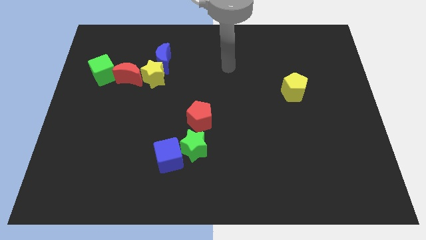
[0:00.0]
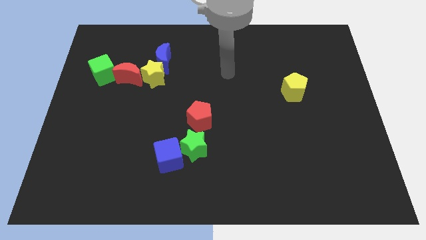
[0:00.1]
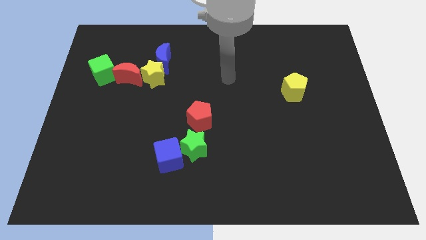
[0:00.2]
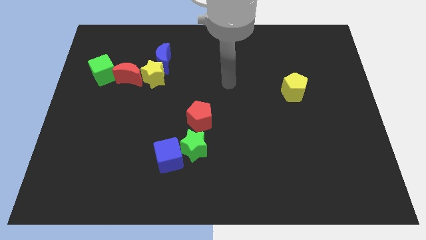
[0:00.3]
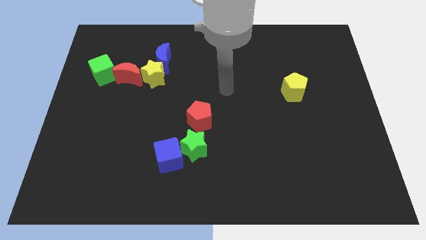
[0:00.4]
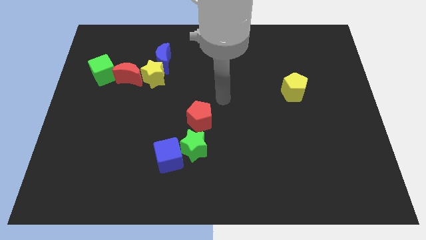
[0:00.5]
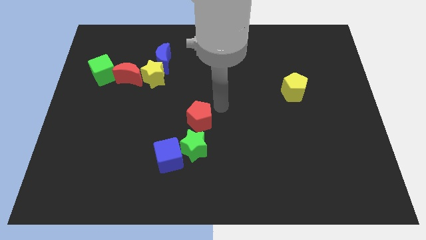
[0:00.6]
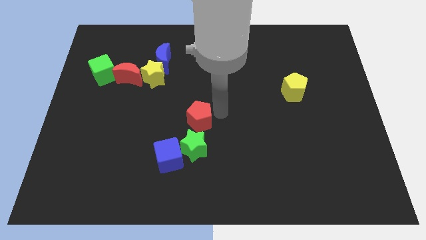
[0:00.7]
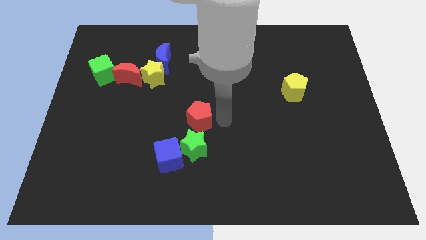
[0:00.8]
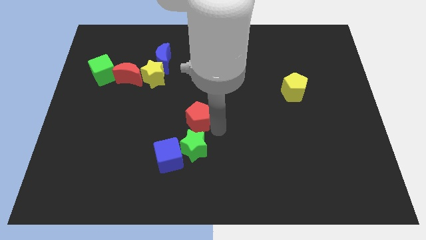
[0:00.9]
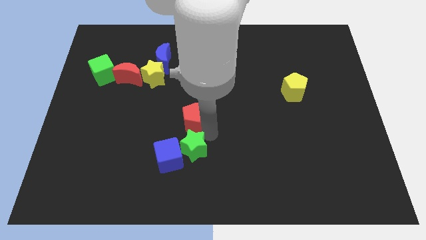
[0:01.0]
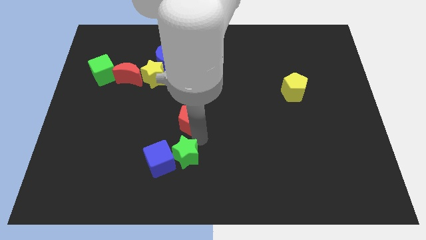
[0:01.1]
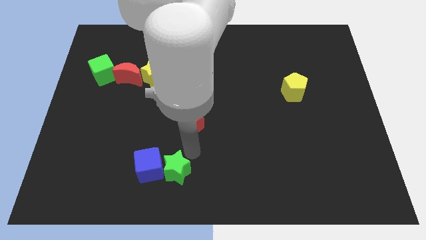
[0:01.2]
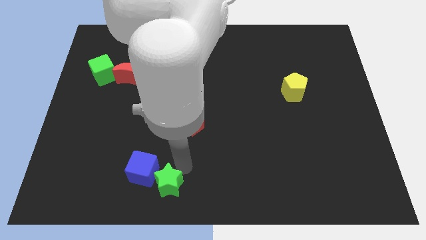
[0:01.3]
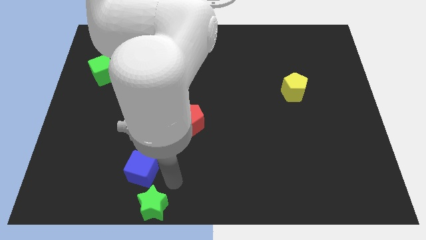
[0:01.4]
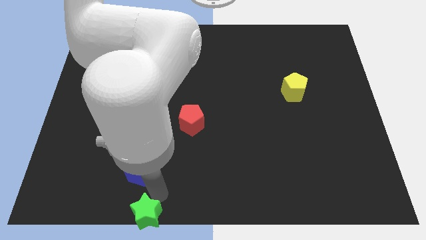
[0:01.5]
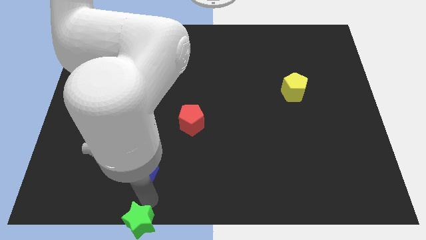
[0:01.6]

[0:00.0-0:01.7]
separate the blue cube from the green star

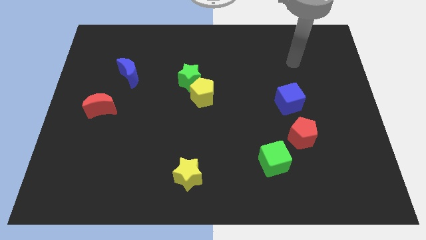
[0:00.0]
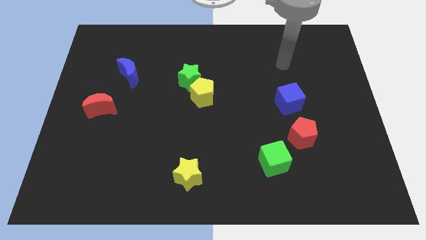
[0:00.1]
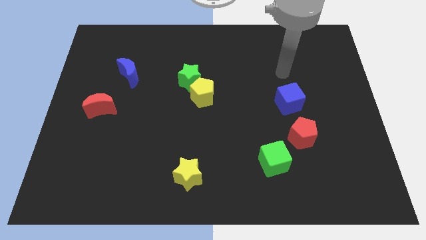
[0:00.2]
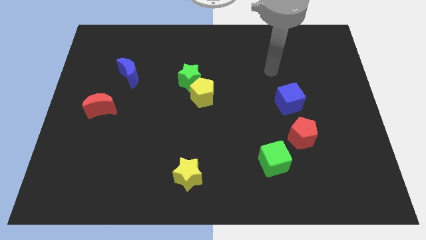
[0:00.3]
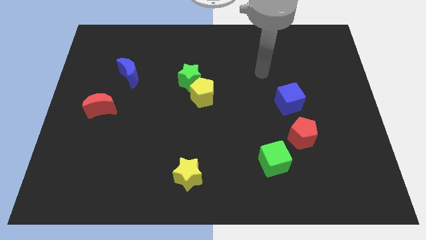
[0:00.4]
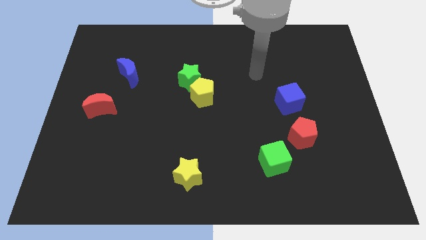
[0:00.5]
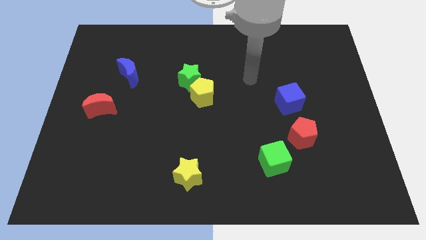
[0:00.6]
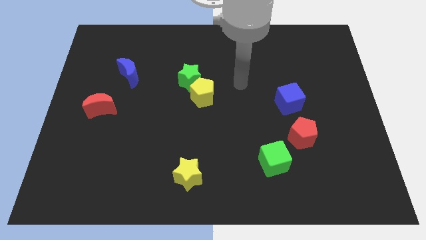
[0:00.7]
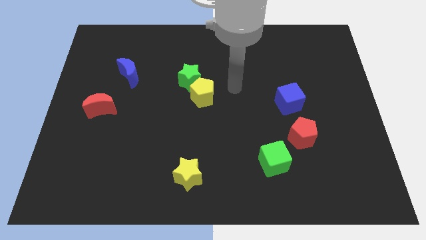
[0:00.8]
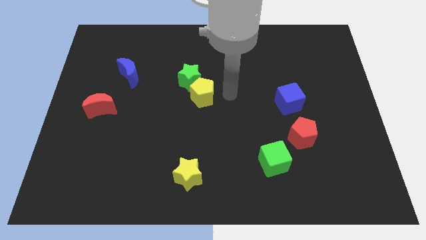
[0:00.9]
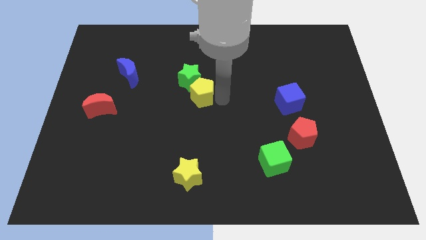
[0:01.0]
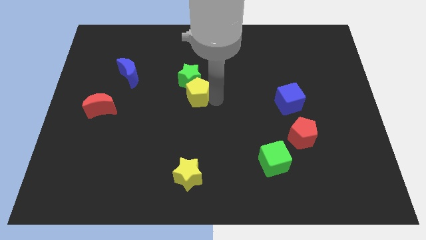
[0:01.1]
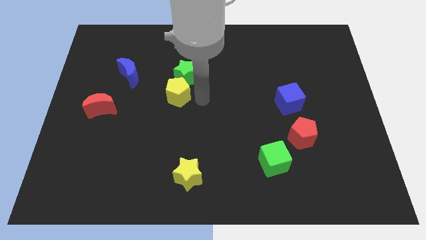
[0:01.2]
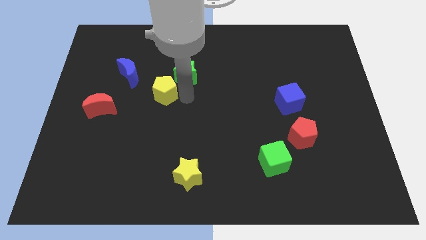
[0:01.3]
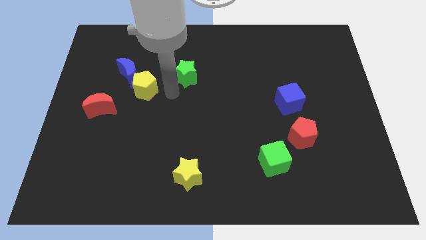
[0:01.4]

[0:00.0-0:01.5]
separate the green star from the yellow pentagon

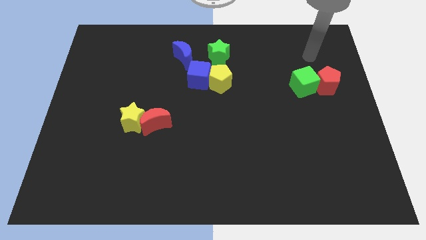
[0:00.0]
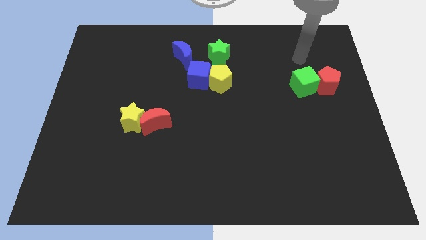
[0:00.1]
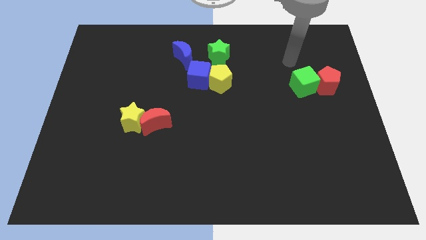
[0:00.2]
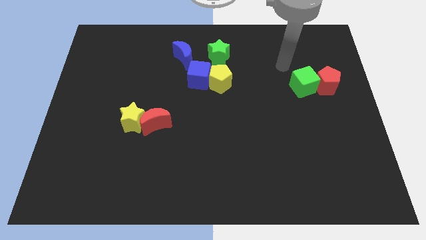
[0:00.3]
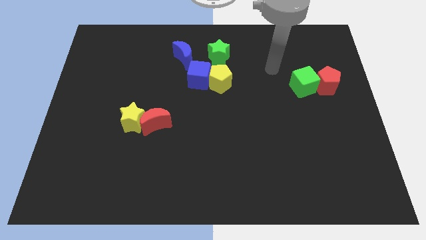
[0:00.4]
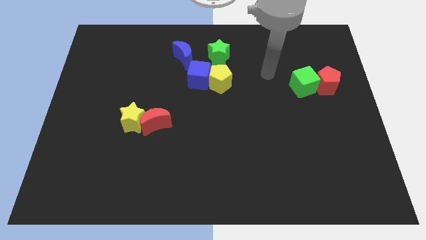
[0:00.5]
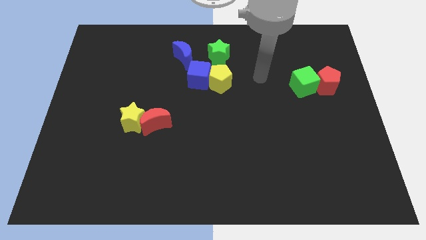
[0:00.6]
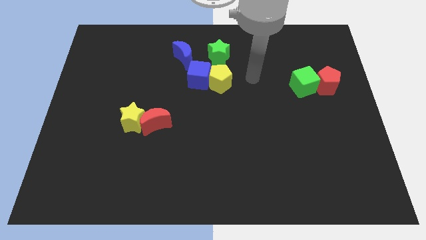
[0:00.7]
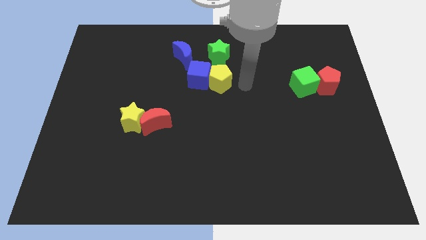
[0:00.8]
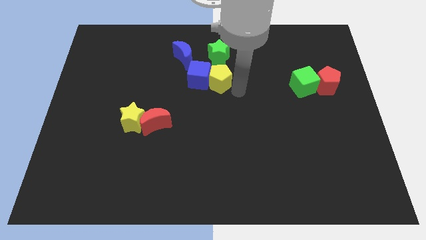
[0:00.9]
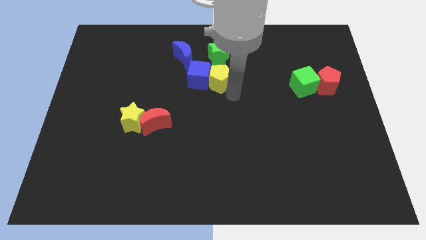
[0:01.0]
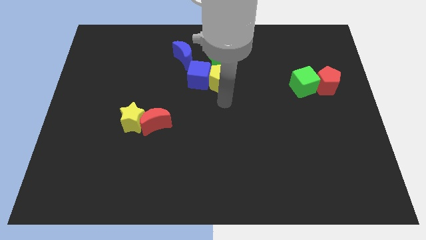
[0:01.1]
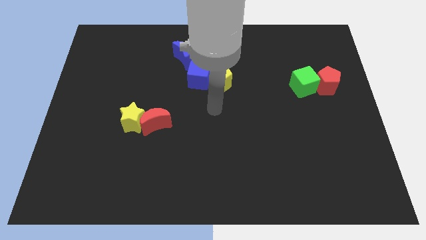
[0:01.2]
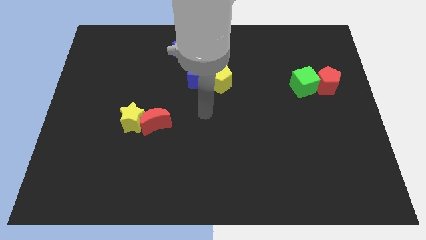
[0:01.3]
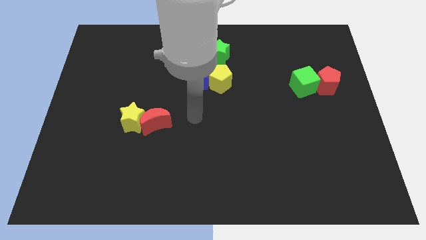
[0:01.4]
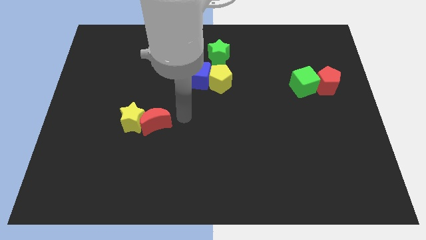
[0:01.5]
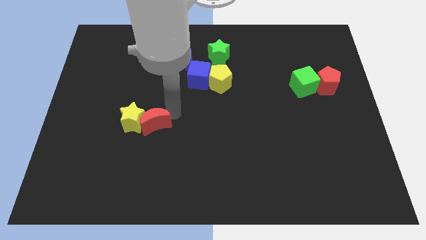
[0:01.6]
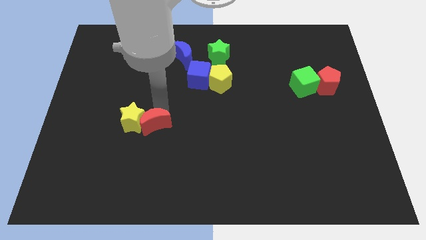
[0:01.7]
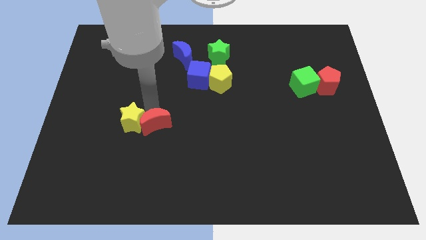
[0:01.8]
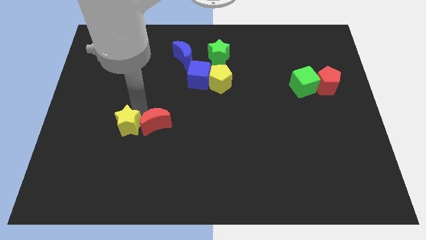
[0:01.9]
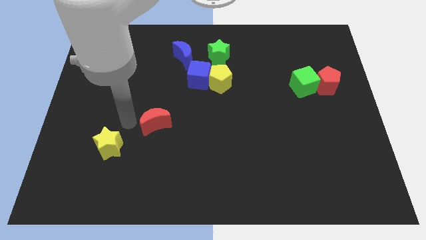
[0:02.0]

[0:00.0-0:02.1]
pull the red moon apart from the yellow star

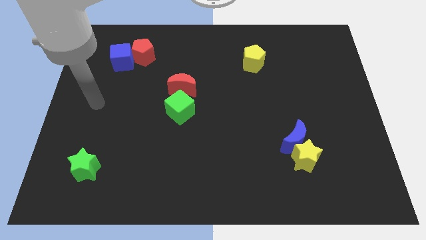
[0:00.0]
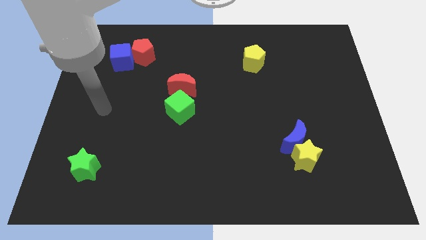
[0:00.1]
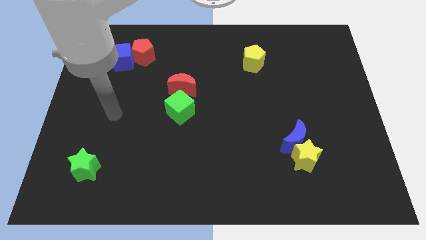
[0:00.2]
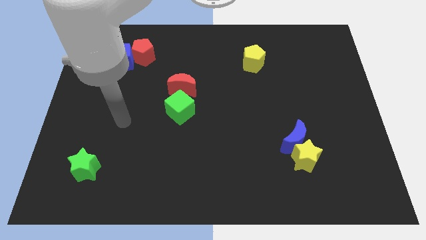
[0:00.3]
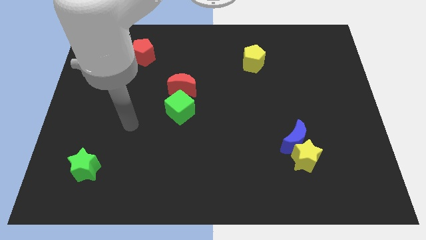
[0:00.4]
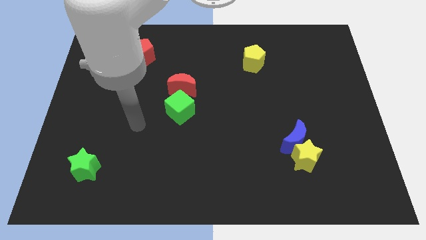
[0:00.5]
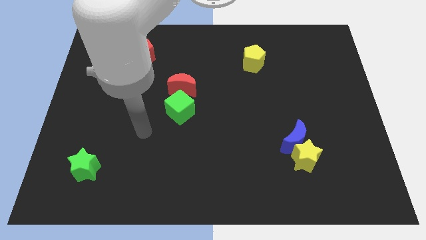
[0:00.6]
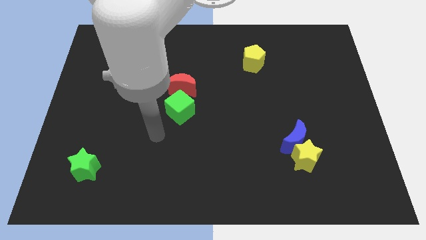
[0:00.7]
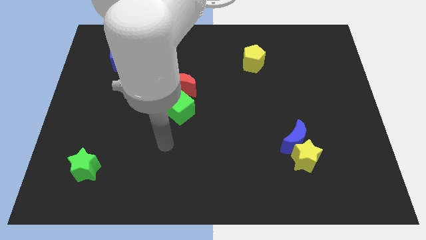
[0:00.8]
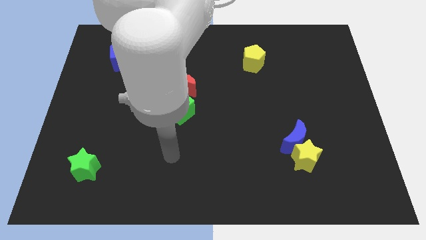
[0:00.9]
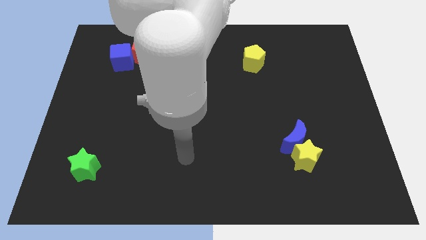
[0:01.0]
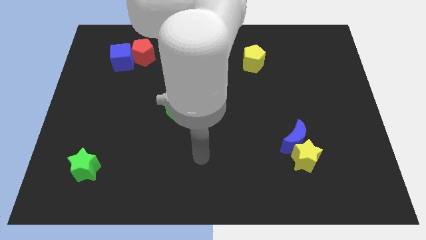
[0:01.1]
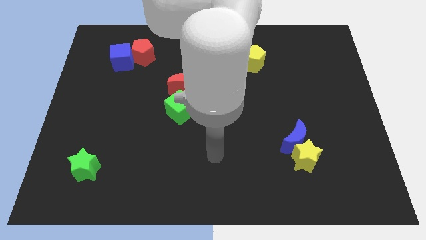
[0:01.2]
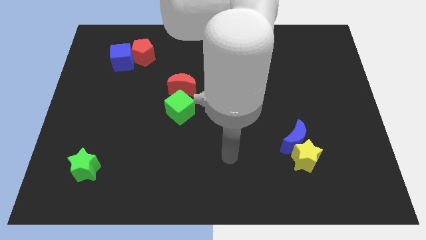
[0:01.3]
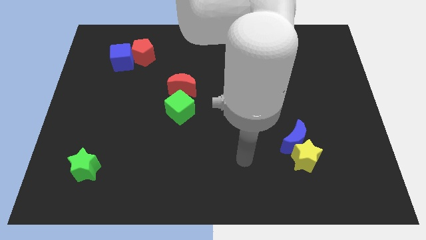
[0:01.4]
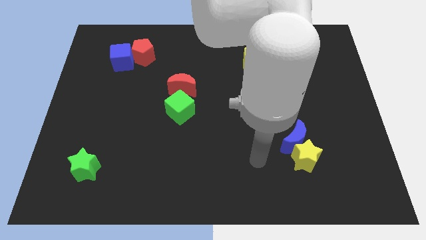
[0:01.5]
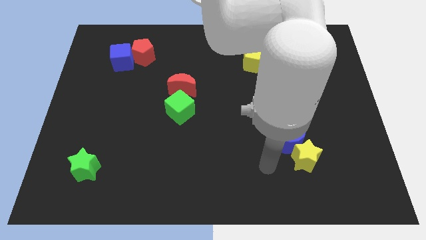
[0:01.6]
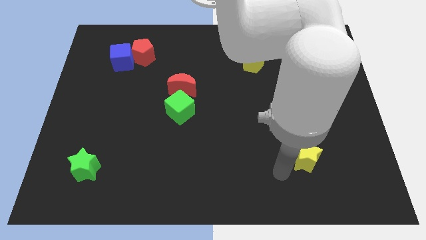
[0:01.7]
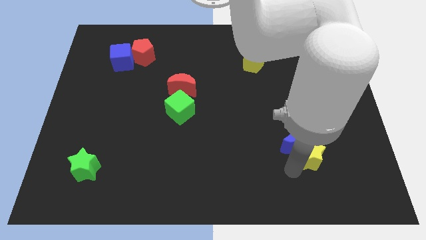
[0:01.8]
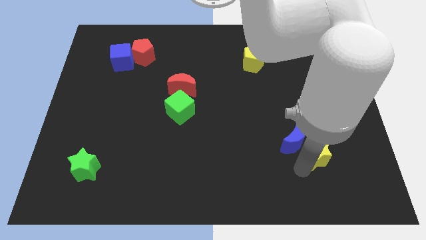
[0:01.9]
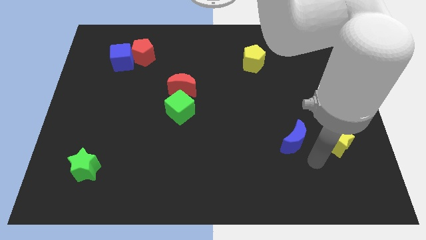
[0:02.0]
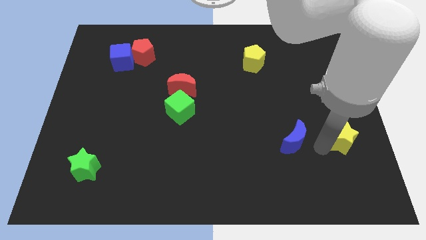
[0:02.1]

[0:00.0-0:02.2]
pull the blue moon apart from the yellow star

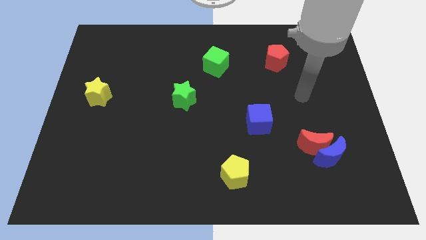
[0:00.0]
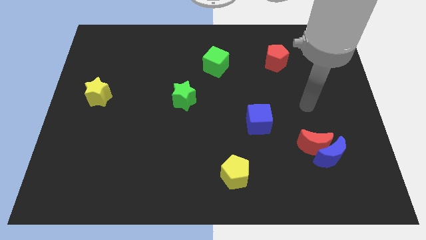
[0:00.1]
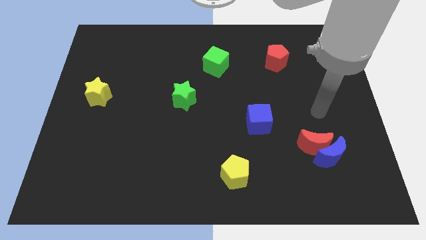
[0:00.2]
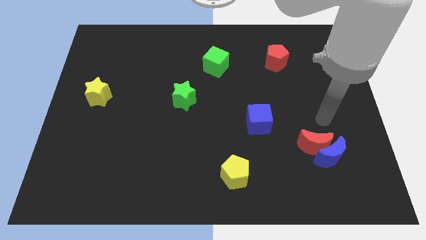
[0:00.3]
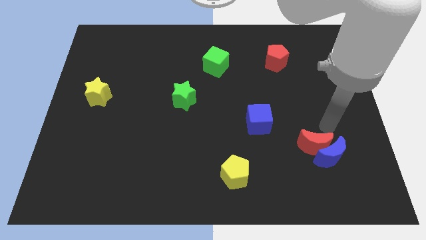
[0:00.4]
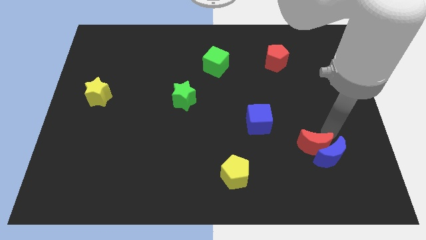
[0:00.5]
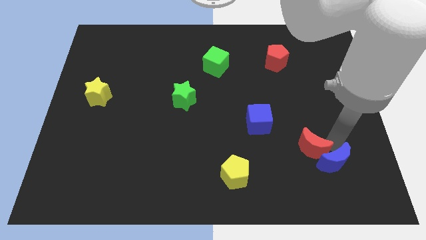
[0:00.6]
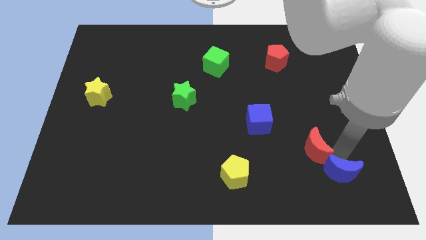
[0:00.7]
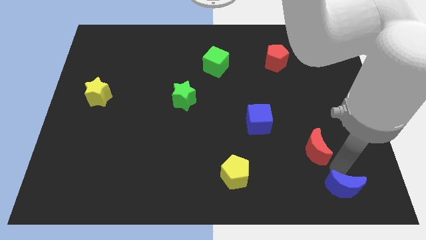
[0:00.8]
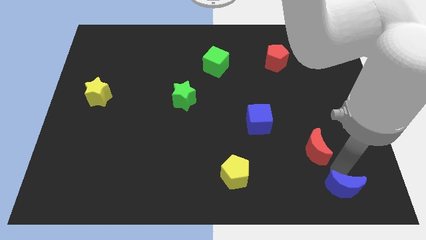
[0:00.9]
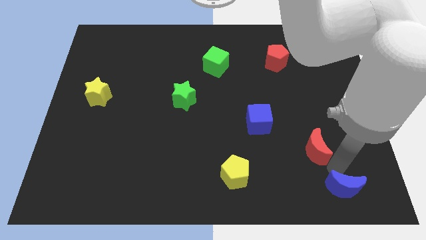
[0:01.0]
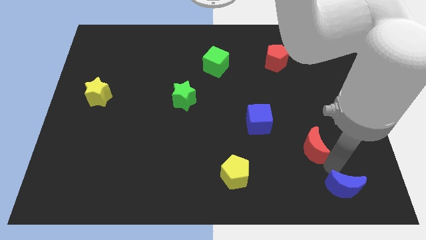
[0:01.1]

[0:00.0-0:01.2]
move the red moon away from the blue moon

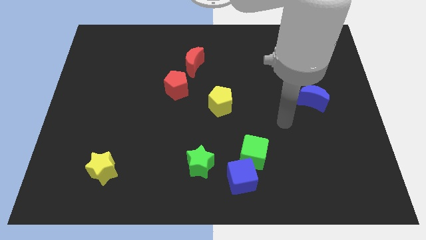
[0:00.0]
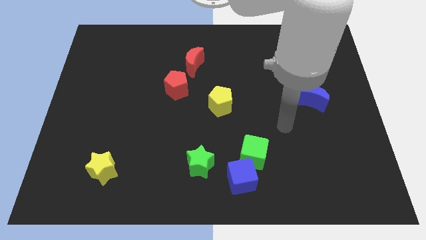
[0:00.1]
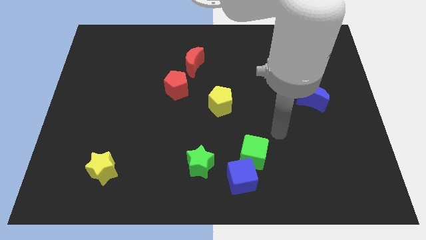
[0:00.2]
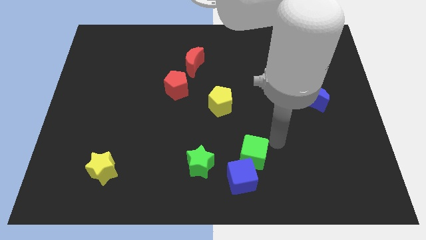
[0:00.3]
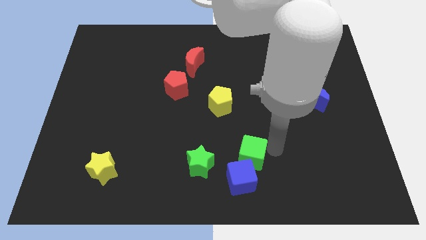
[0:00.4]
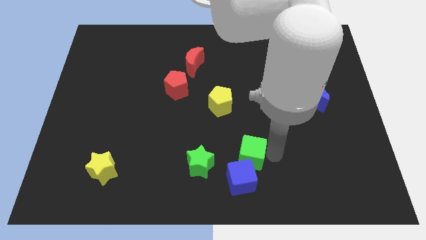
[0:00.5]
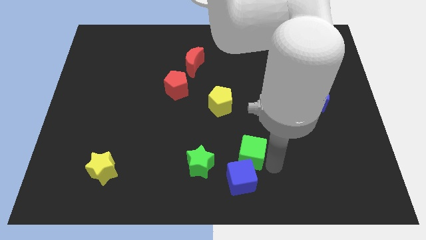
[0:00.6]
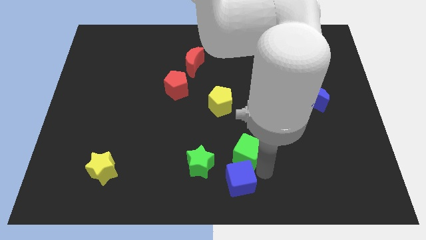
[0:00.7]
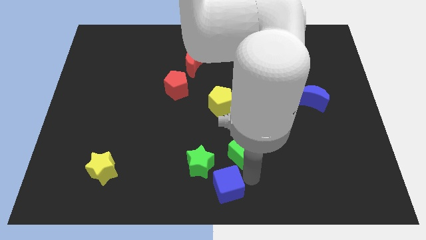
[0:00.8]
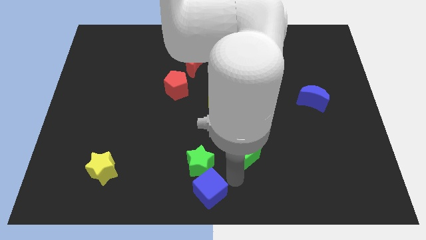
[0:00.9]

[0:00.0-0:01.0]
pull the green cube apart from the blue cube
